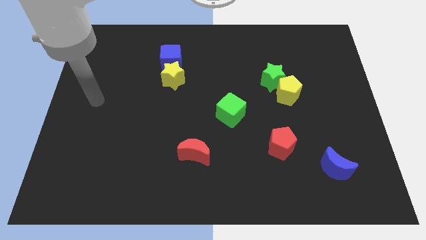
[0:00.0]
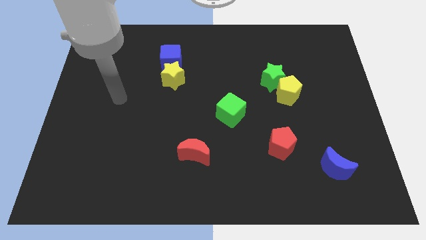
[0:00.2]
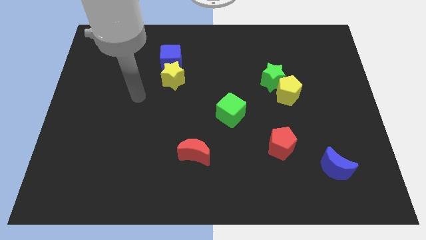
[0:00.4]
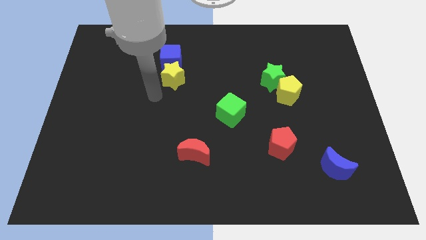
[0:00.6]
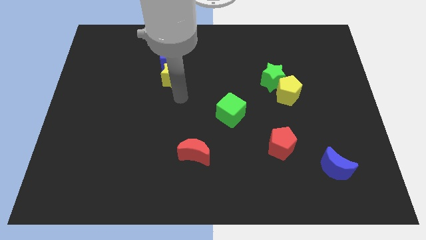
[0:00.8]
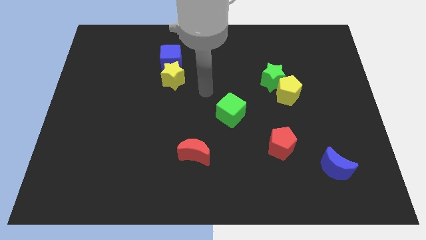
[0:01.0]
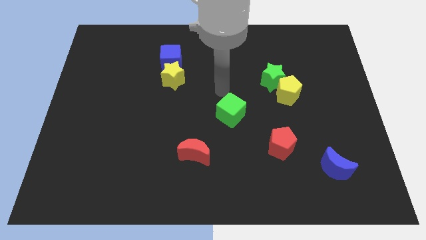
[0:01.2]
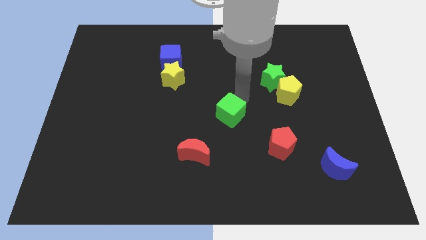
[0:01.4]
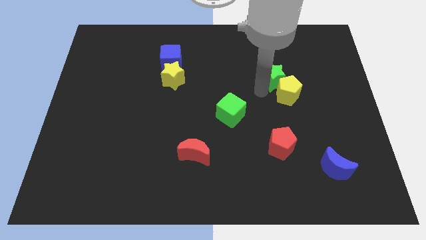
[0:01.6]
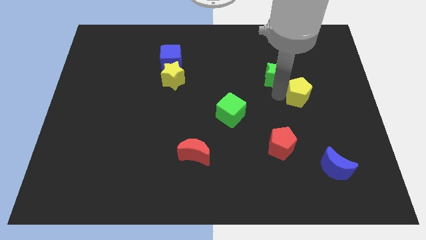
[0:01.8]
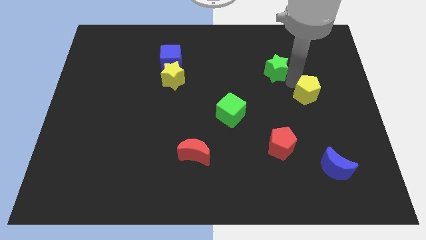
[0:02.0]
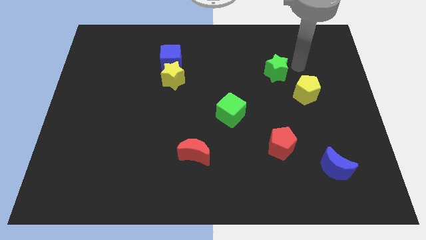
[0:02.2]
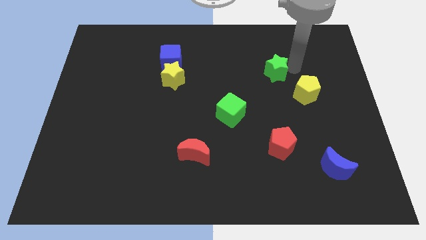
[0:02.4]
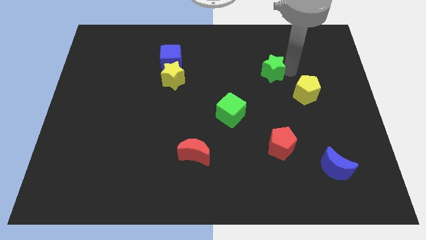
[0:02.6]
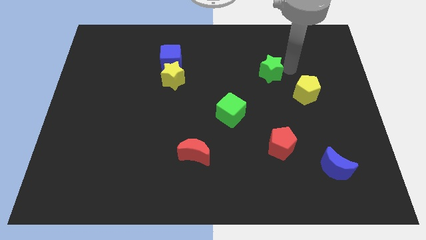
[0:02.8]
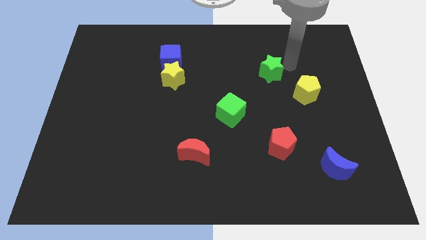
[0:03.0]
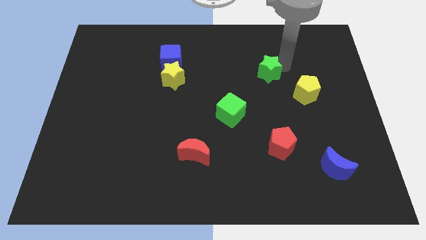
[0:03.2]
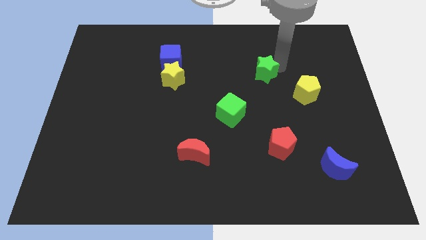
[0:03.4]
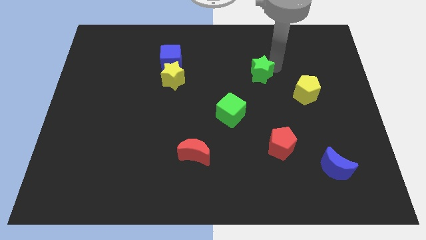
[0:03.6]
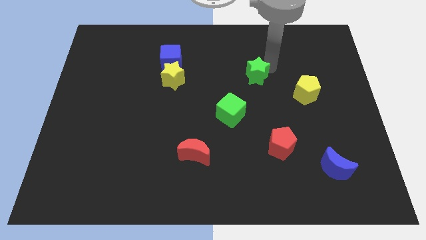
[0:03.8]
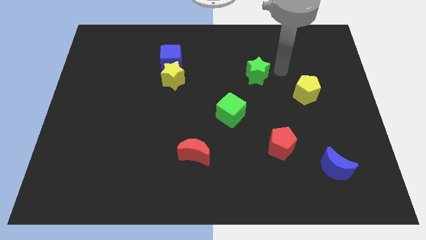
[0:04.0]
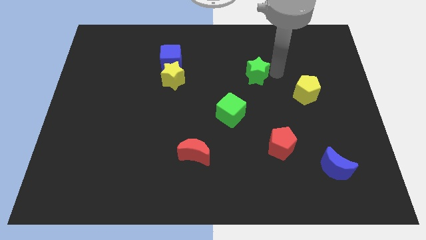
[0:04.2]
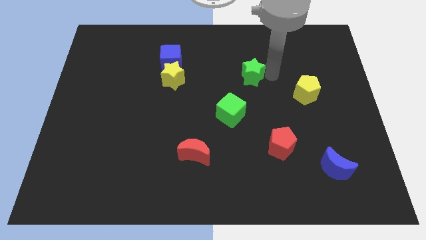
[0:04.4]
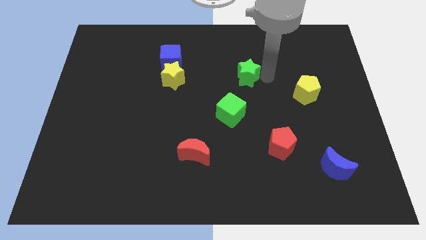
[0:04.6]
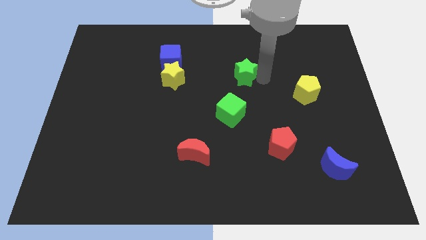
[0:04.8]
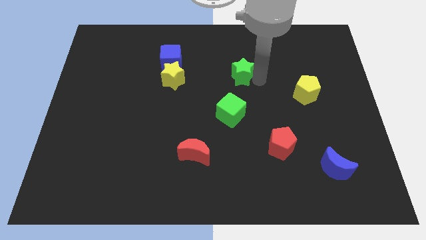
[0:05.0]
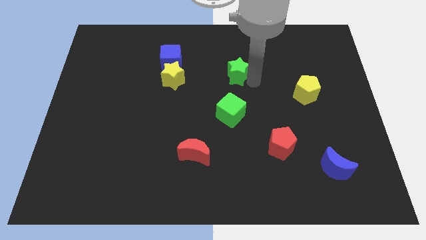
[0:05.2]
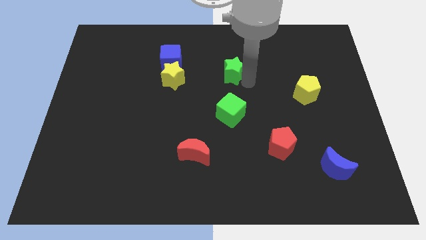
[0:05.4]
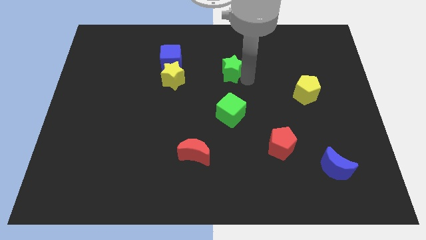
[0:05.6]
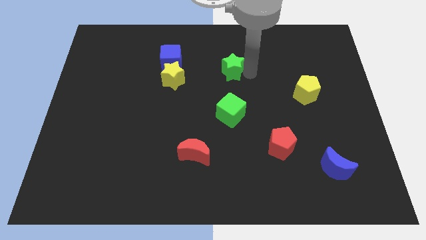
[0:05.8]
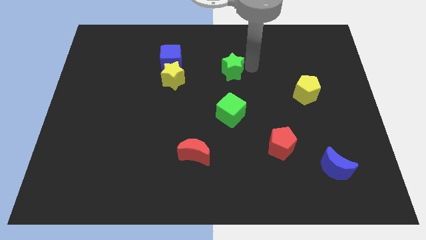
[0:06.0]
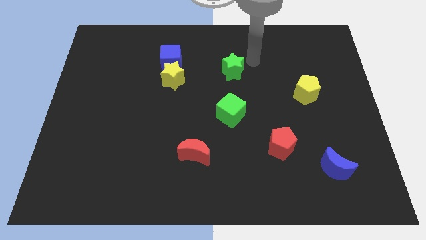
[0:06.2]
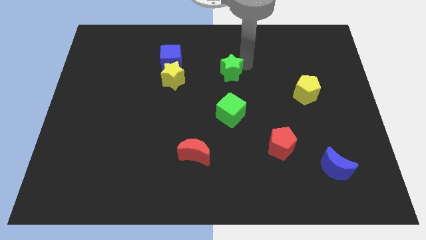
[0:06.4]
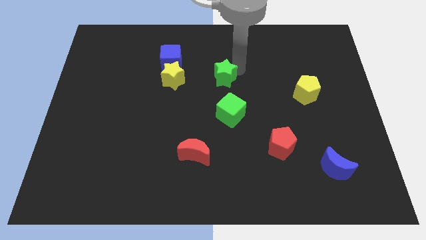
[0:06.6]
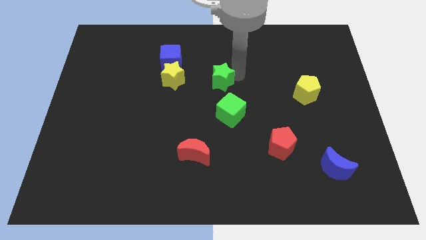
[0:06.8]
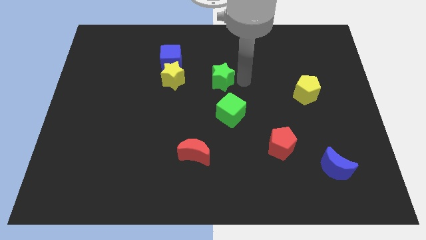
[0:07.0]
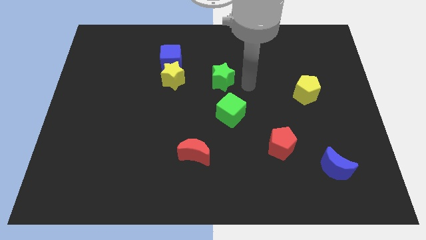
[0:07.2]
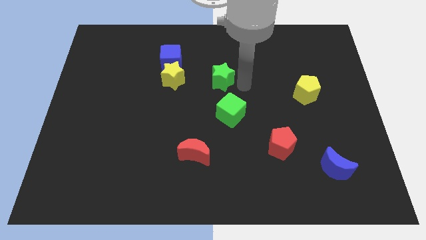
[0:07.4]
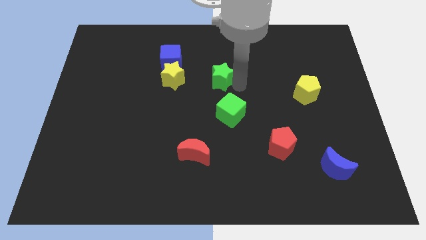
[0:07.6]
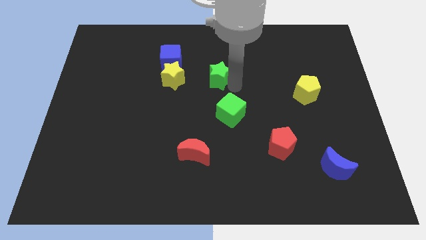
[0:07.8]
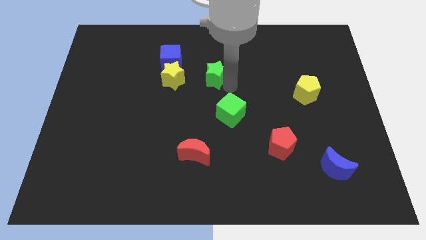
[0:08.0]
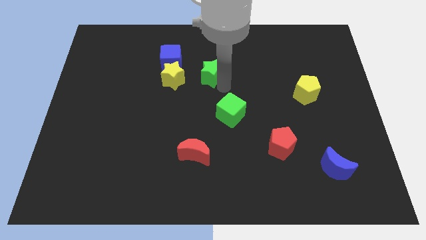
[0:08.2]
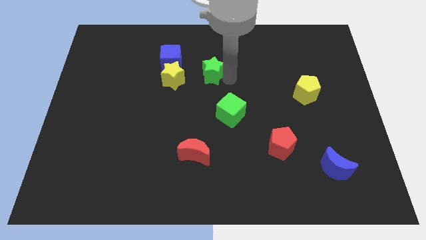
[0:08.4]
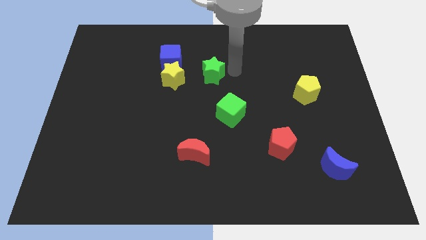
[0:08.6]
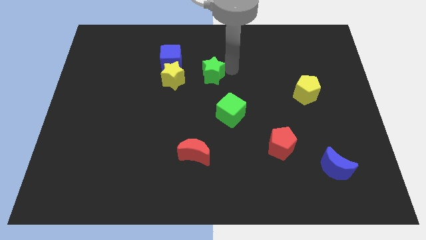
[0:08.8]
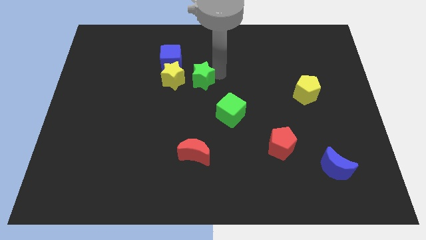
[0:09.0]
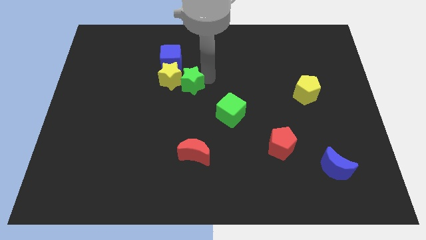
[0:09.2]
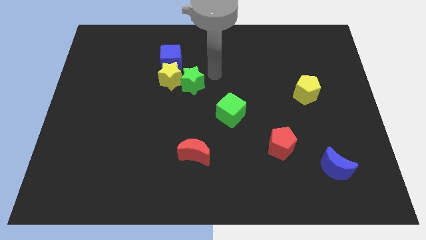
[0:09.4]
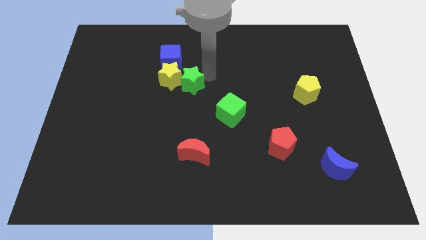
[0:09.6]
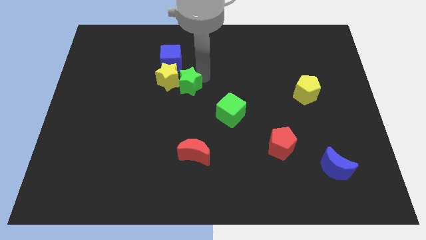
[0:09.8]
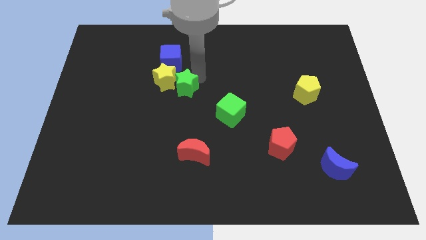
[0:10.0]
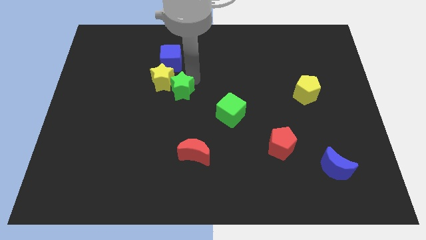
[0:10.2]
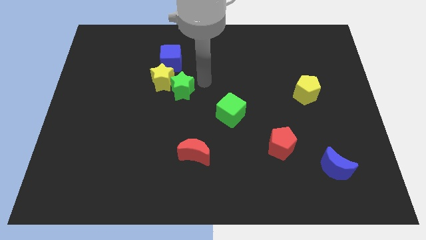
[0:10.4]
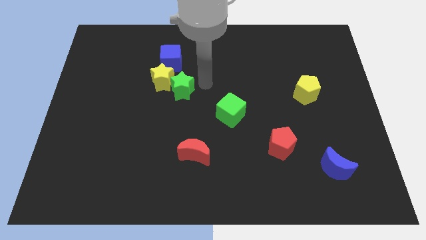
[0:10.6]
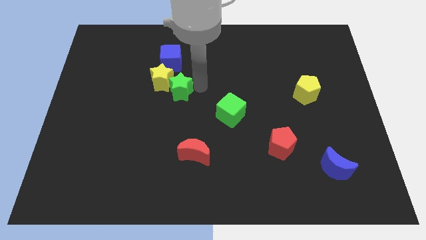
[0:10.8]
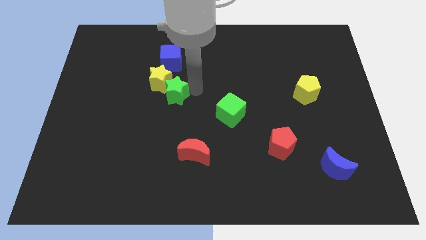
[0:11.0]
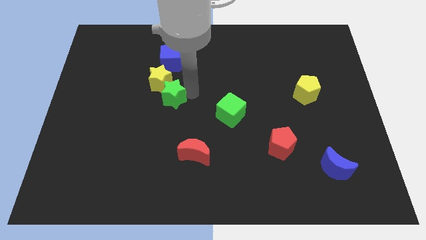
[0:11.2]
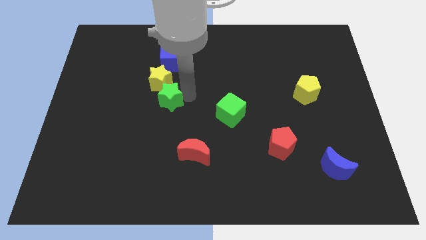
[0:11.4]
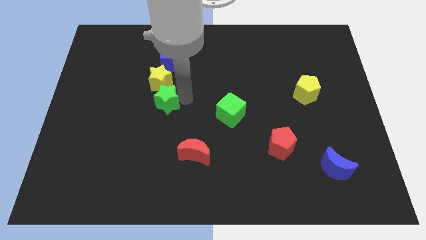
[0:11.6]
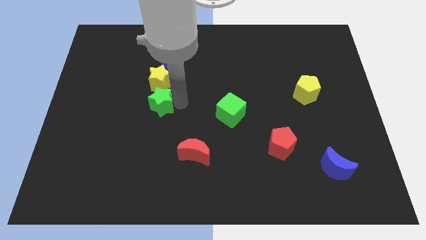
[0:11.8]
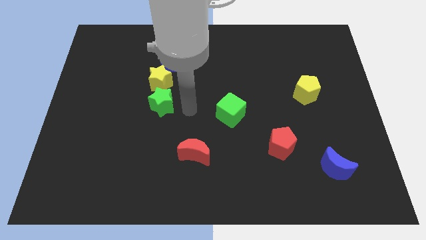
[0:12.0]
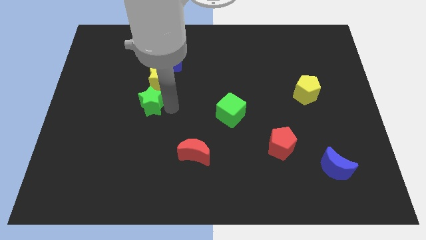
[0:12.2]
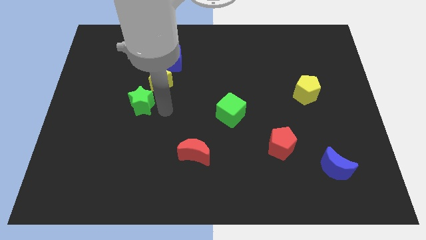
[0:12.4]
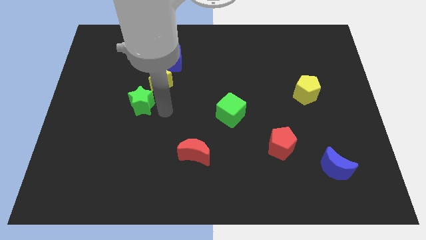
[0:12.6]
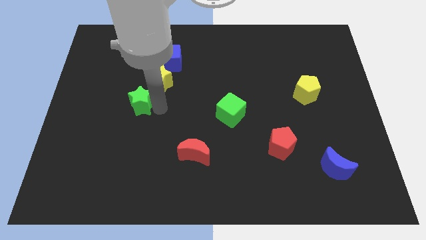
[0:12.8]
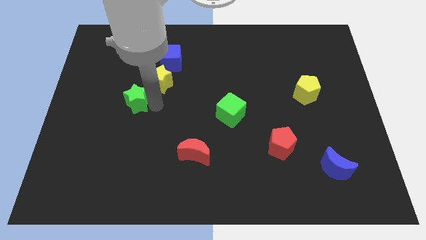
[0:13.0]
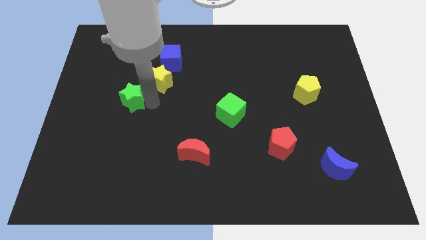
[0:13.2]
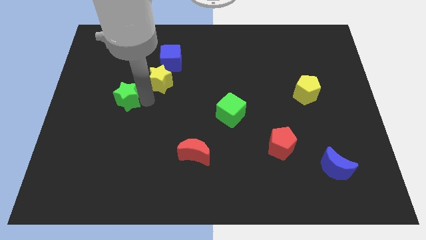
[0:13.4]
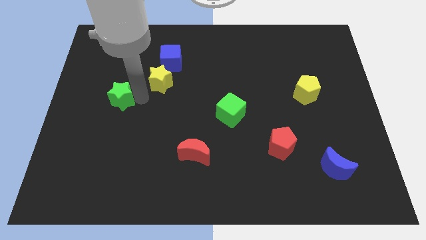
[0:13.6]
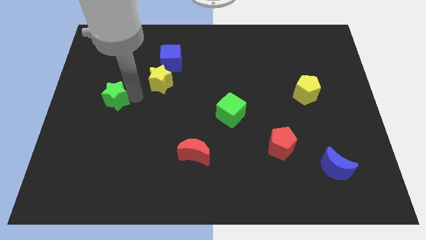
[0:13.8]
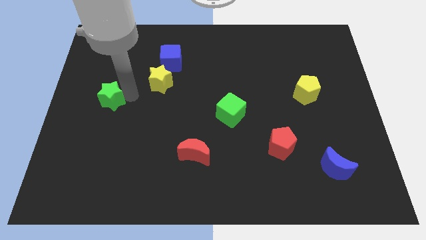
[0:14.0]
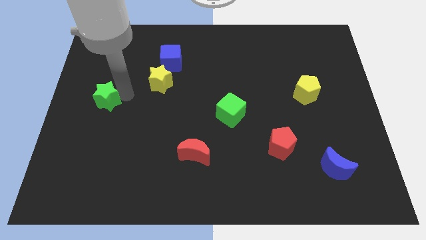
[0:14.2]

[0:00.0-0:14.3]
slide the green star to the left side of the board

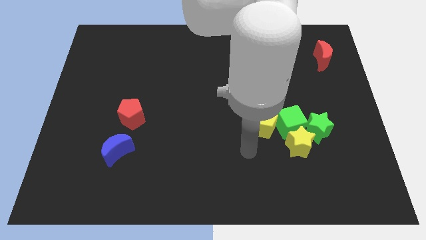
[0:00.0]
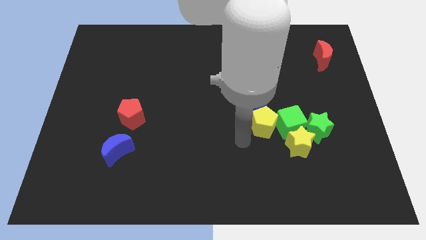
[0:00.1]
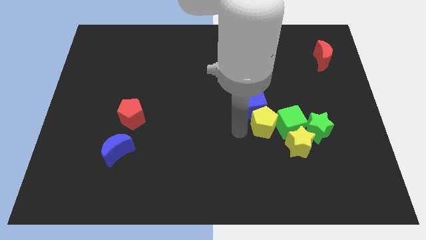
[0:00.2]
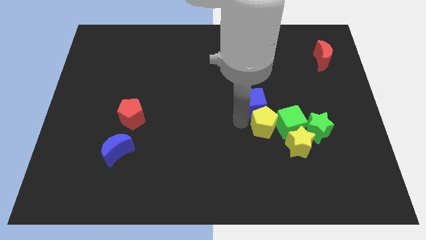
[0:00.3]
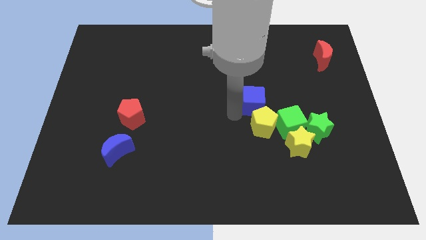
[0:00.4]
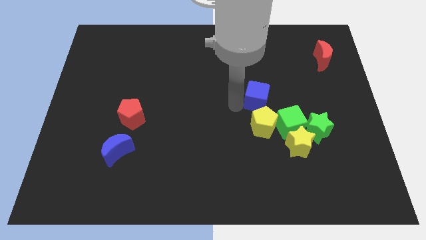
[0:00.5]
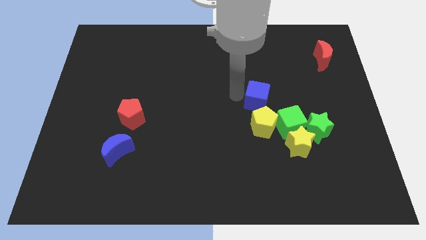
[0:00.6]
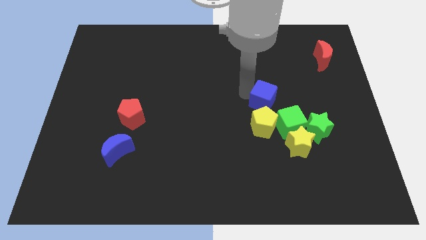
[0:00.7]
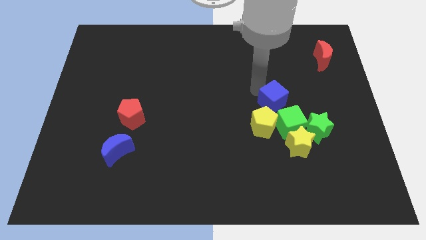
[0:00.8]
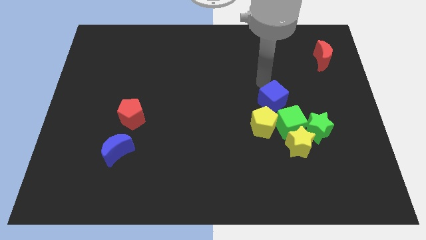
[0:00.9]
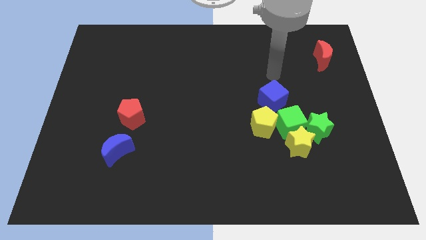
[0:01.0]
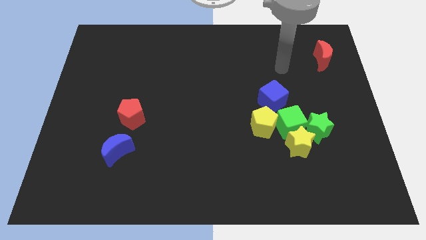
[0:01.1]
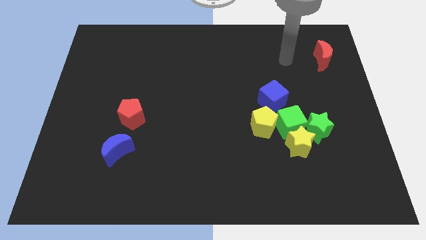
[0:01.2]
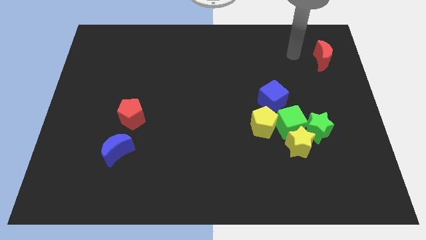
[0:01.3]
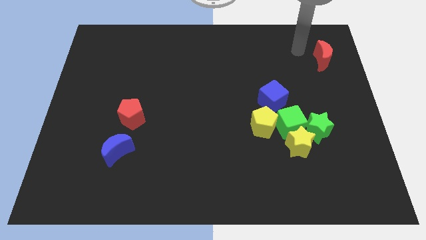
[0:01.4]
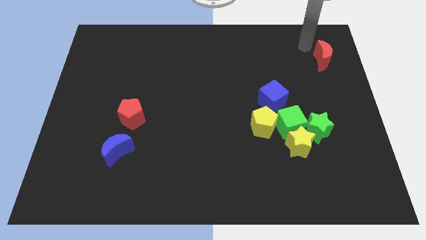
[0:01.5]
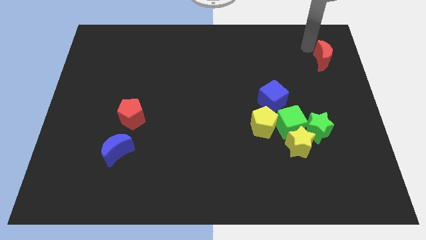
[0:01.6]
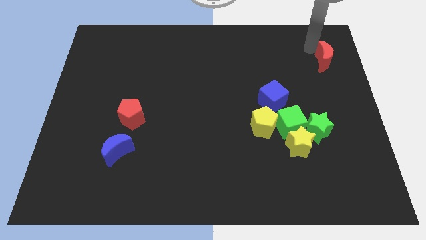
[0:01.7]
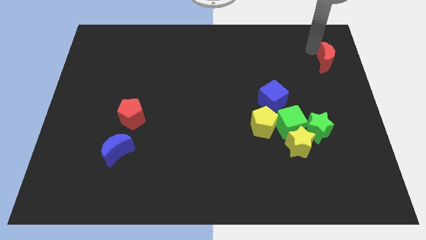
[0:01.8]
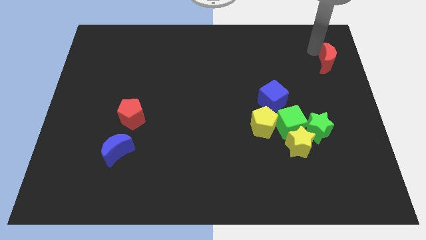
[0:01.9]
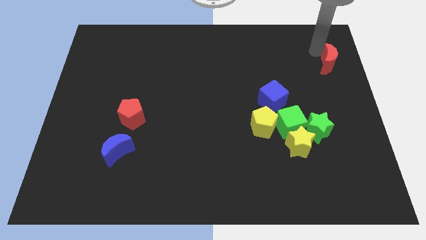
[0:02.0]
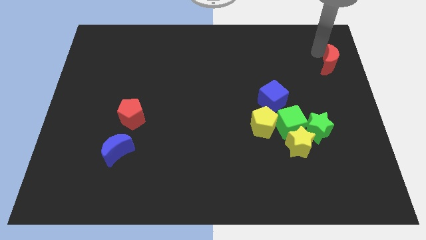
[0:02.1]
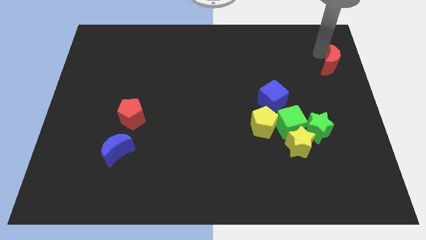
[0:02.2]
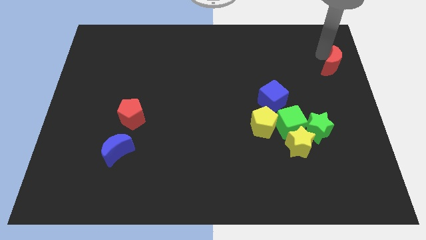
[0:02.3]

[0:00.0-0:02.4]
push the red moon to the right side
